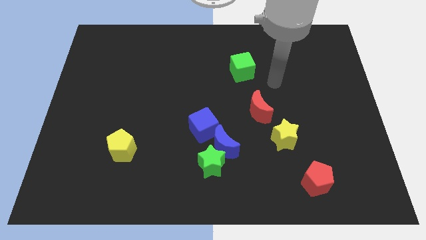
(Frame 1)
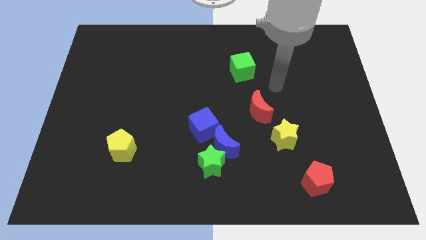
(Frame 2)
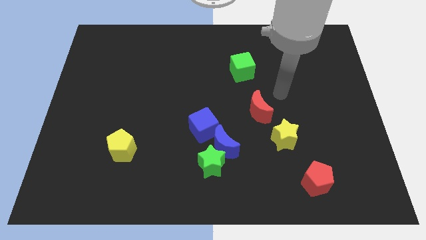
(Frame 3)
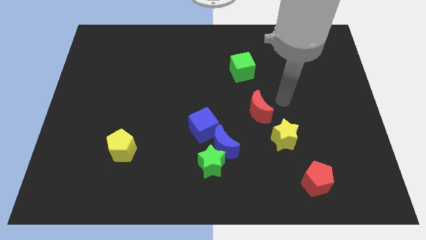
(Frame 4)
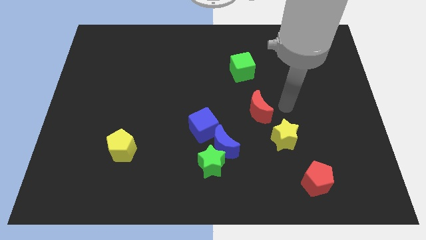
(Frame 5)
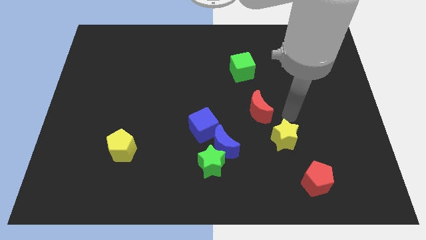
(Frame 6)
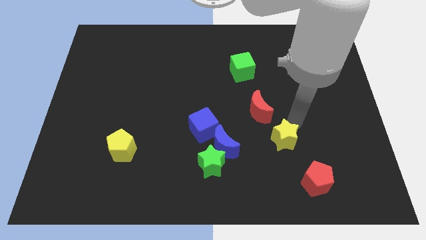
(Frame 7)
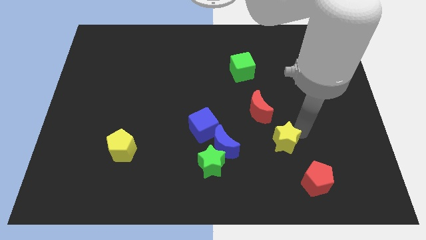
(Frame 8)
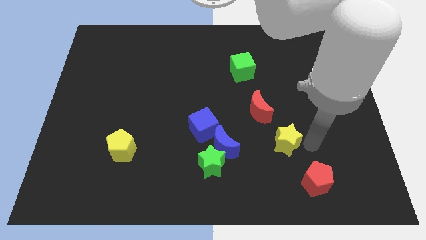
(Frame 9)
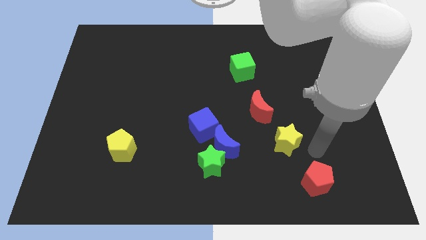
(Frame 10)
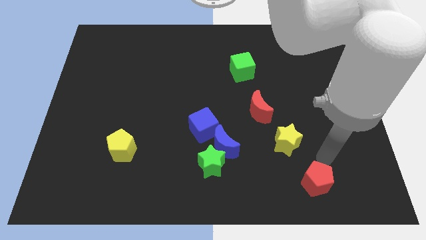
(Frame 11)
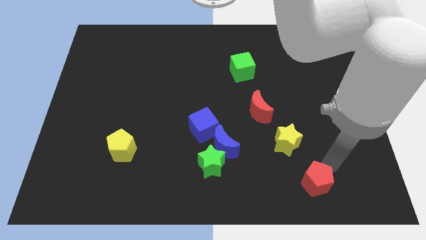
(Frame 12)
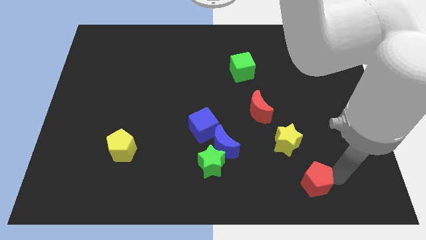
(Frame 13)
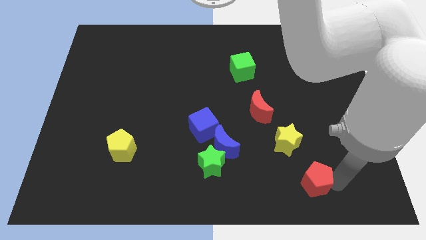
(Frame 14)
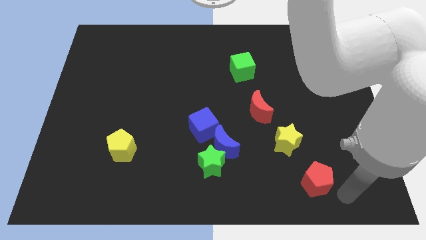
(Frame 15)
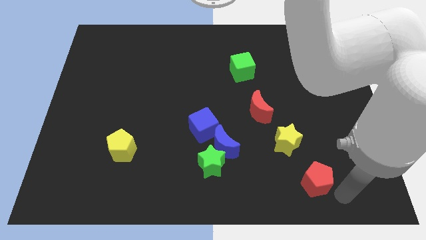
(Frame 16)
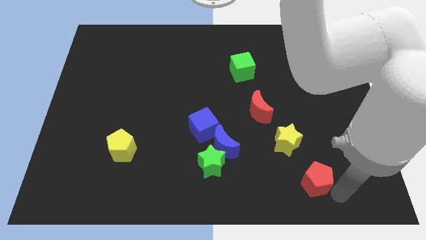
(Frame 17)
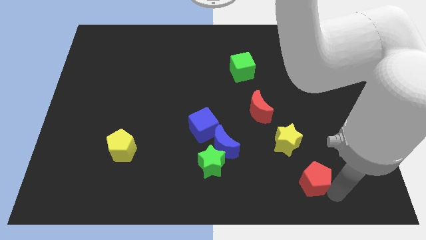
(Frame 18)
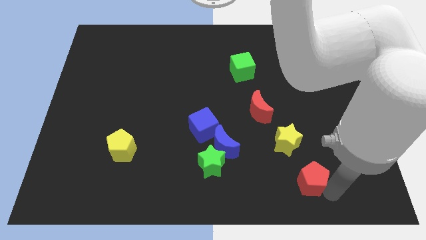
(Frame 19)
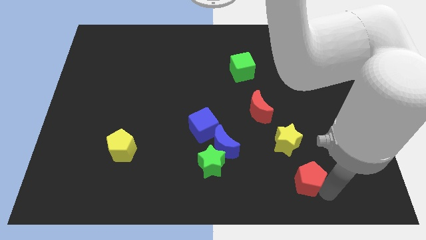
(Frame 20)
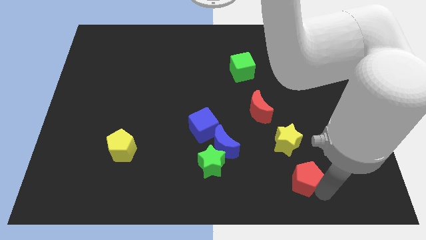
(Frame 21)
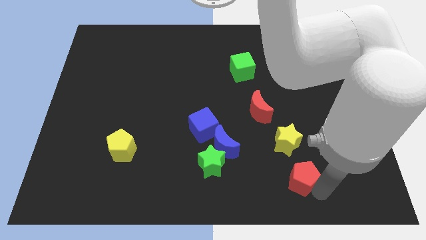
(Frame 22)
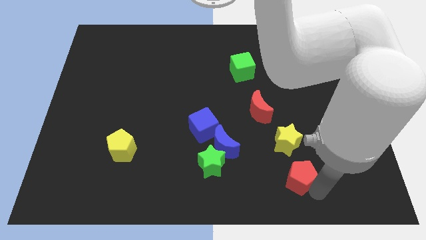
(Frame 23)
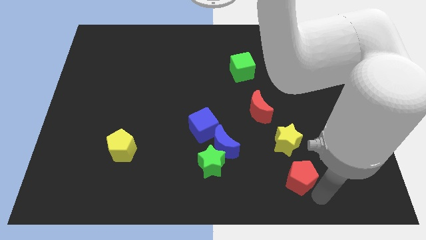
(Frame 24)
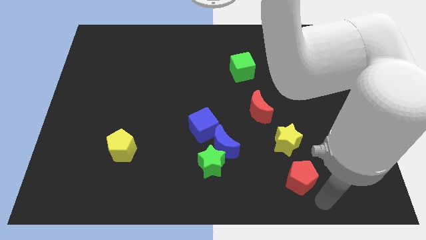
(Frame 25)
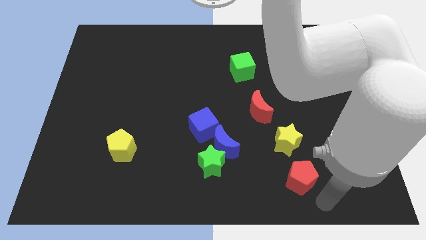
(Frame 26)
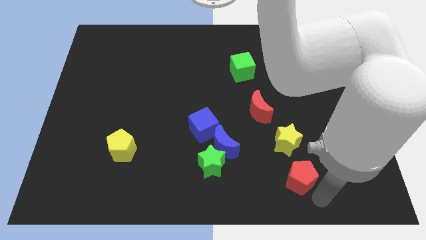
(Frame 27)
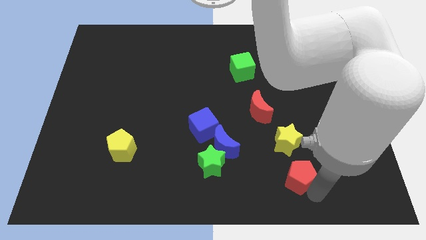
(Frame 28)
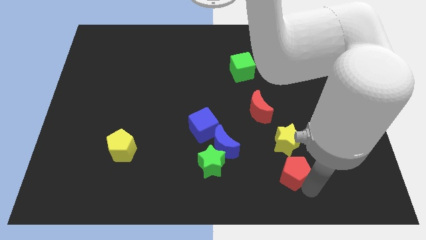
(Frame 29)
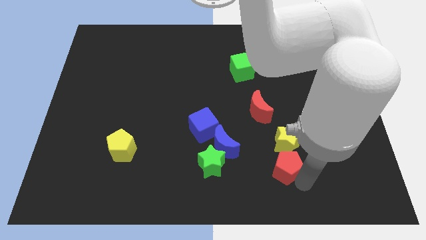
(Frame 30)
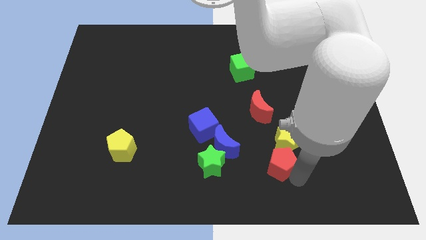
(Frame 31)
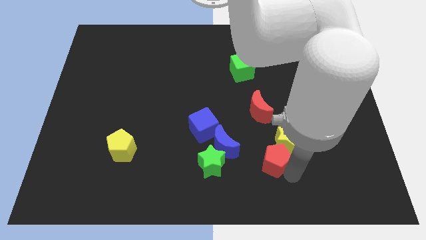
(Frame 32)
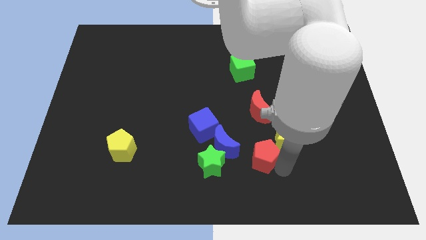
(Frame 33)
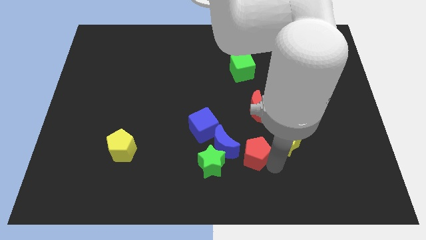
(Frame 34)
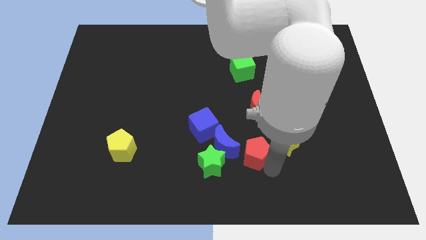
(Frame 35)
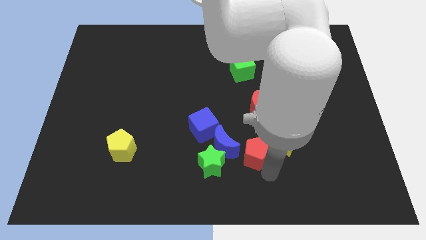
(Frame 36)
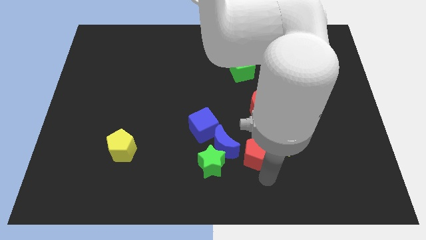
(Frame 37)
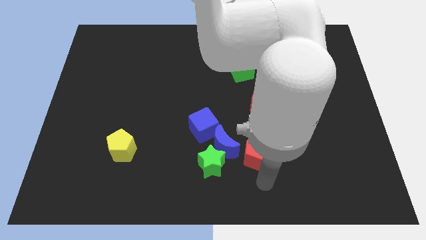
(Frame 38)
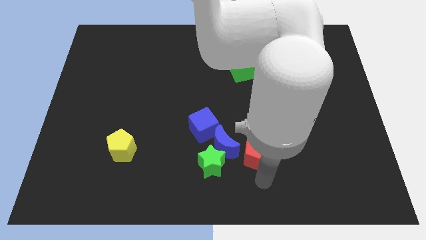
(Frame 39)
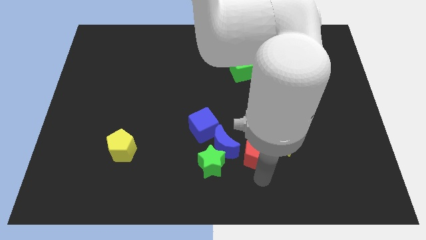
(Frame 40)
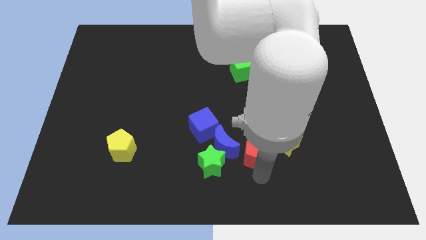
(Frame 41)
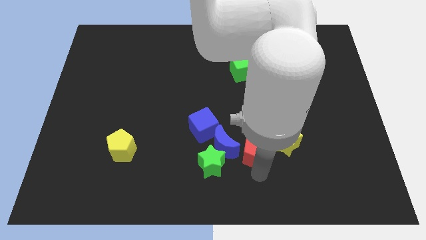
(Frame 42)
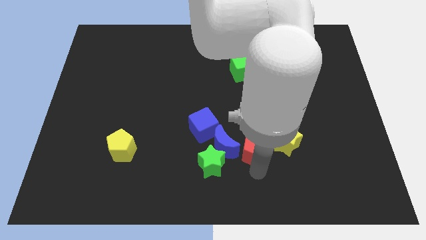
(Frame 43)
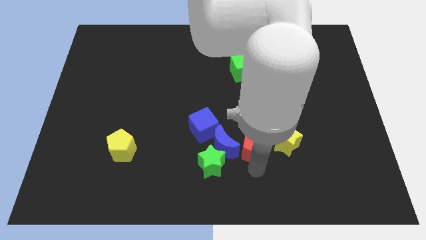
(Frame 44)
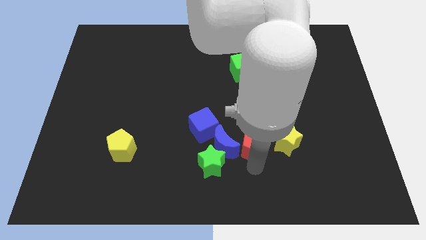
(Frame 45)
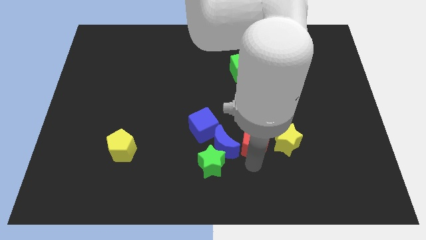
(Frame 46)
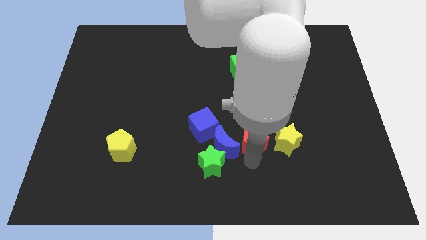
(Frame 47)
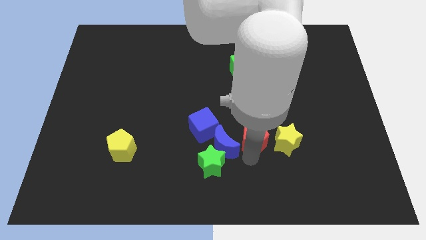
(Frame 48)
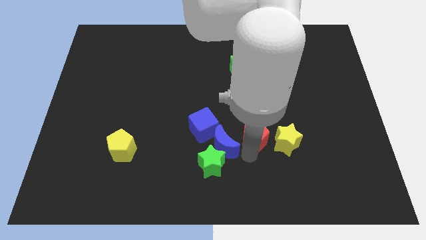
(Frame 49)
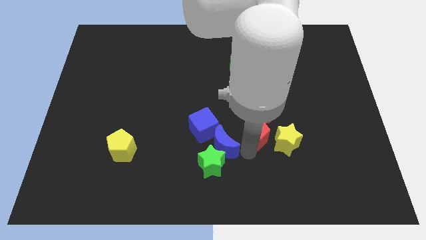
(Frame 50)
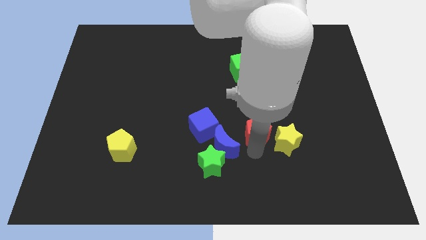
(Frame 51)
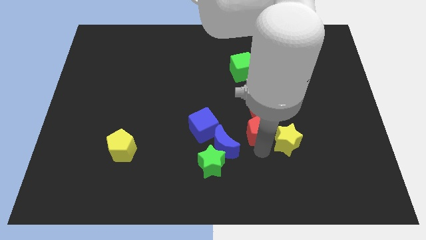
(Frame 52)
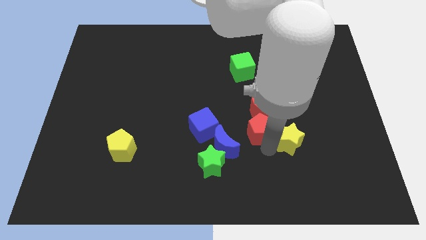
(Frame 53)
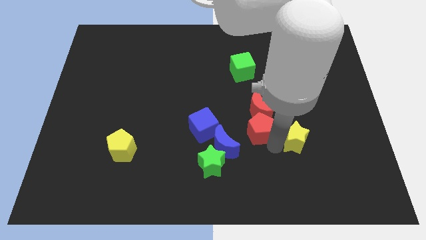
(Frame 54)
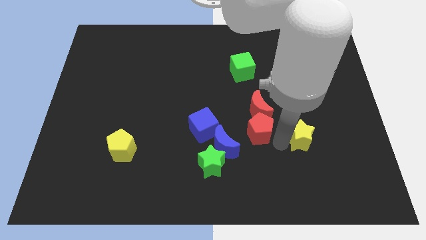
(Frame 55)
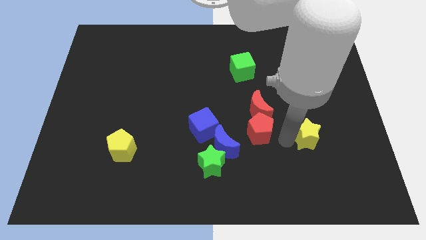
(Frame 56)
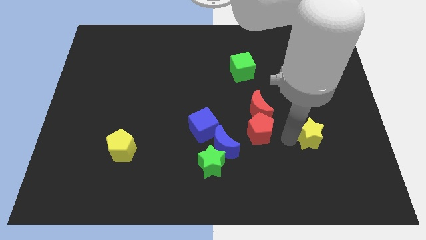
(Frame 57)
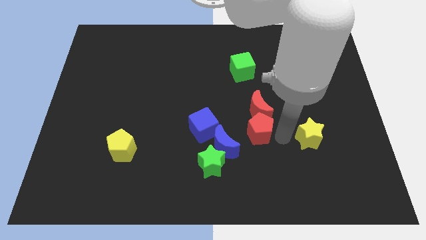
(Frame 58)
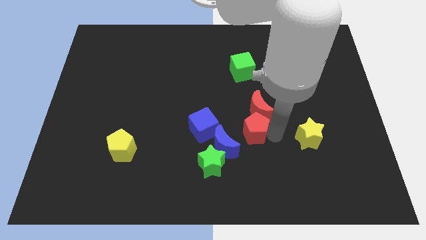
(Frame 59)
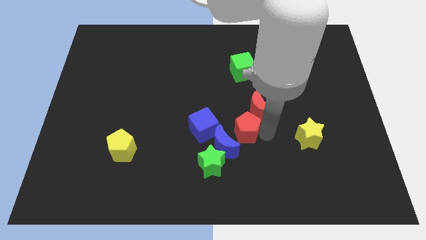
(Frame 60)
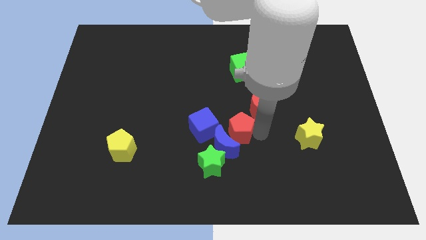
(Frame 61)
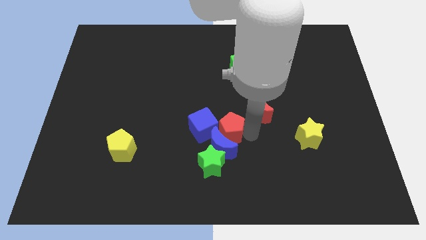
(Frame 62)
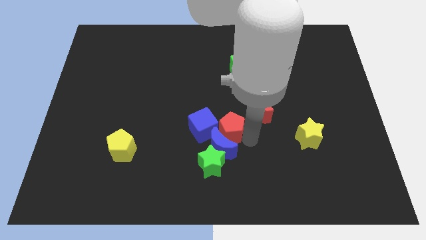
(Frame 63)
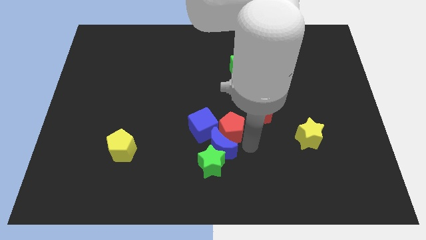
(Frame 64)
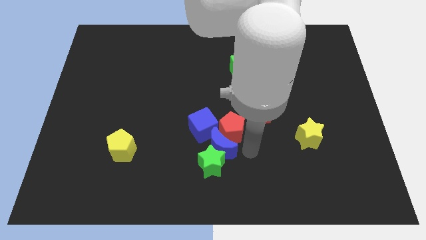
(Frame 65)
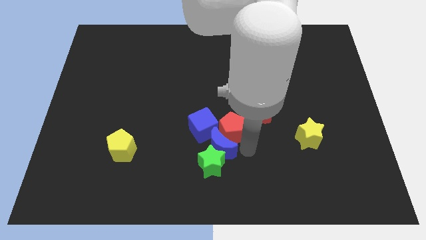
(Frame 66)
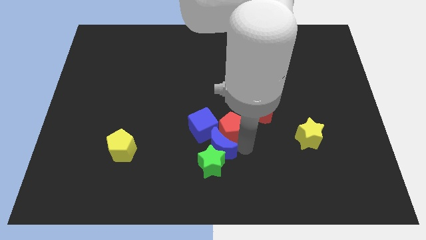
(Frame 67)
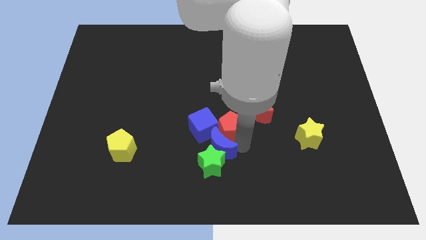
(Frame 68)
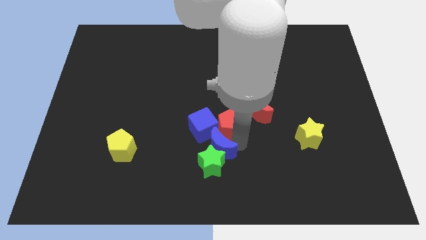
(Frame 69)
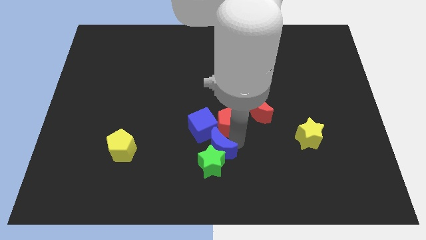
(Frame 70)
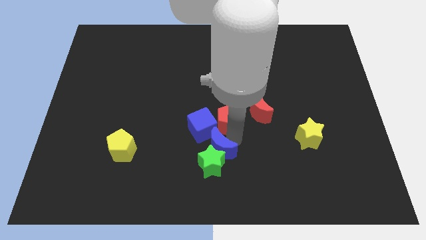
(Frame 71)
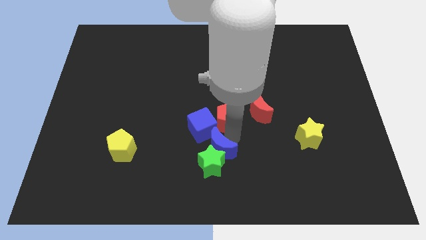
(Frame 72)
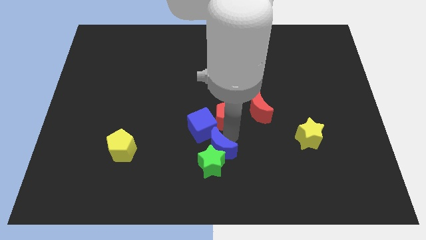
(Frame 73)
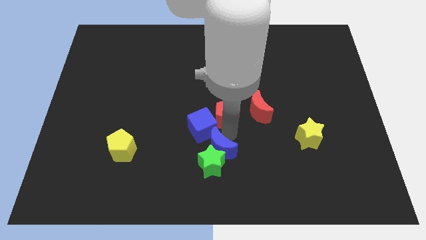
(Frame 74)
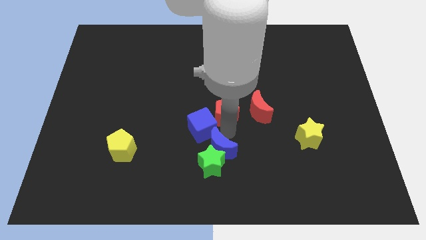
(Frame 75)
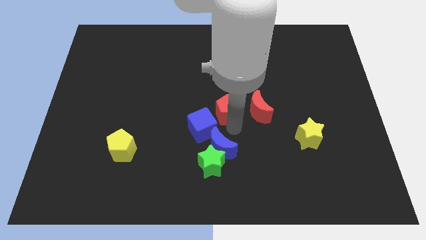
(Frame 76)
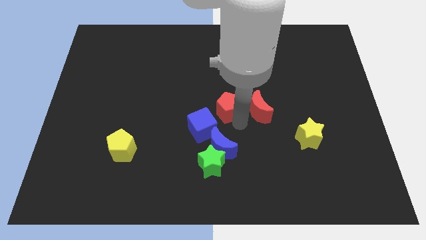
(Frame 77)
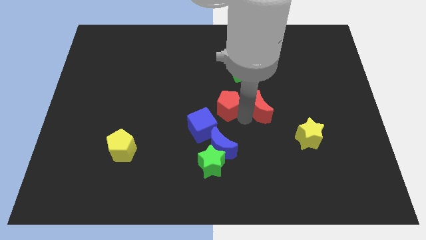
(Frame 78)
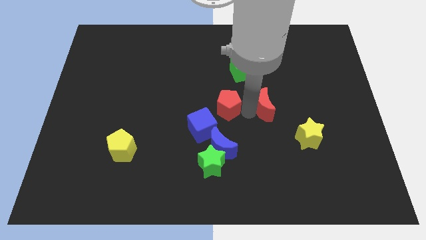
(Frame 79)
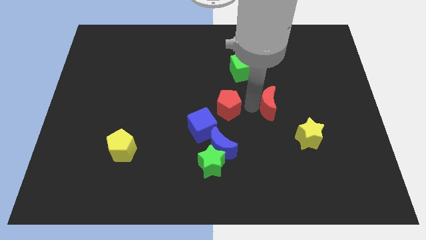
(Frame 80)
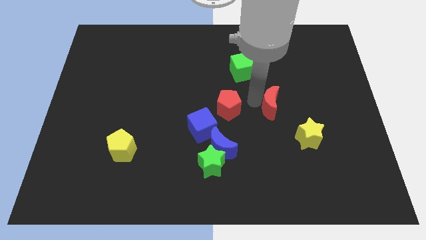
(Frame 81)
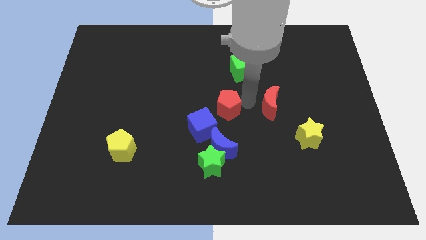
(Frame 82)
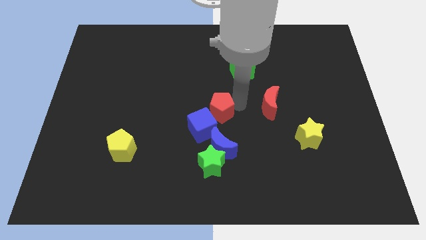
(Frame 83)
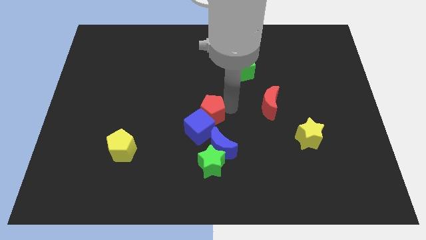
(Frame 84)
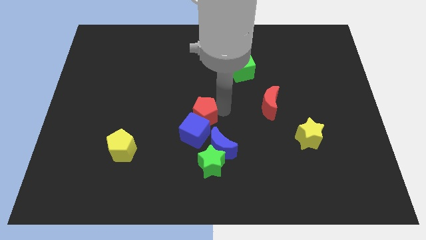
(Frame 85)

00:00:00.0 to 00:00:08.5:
push the red pentagon diagonally up and to the left of the blue moon
